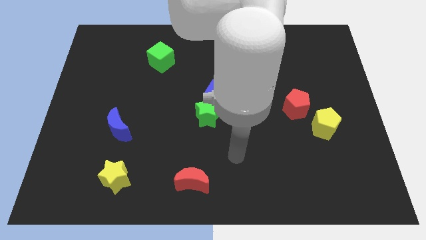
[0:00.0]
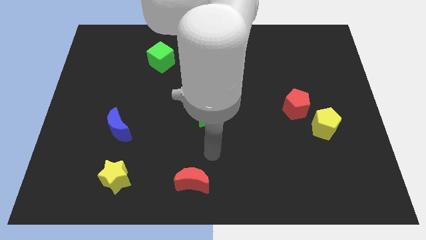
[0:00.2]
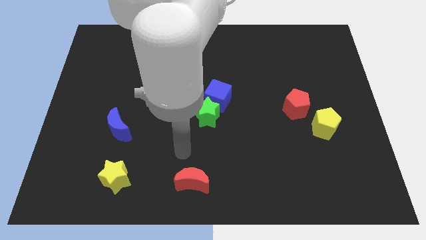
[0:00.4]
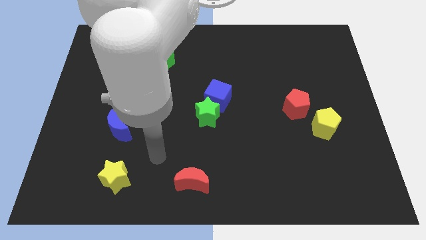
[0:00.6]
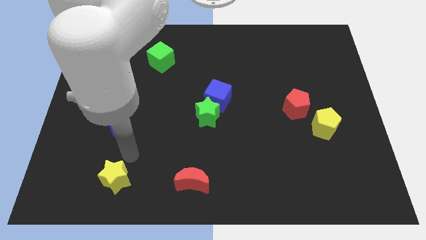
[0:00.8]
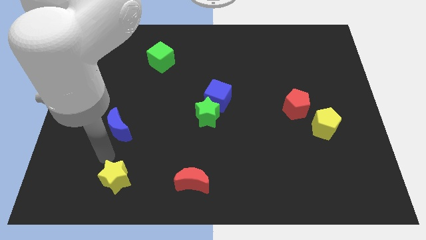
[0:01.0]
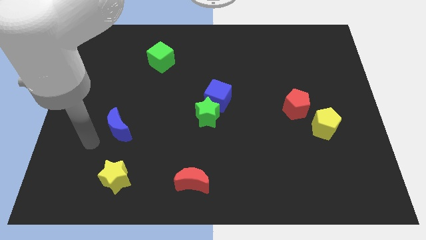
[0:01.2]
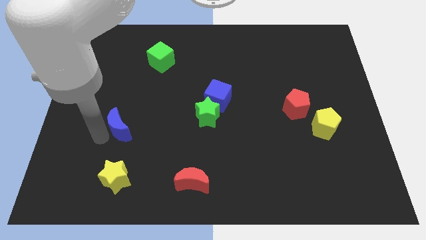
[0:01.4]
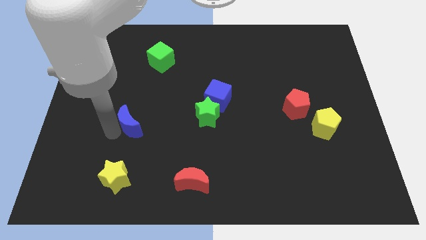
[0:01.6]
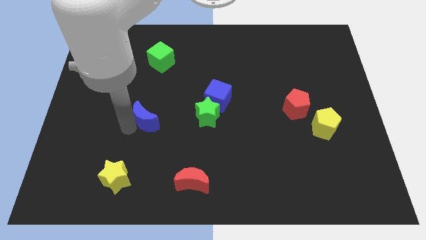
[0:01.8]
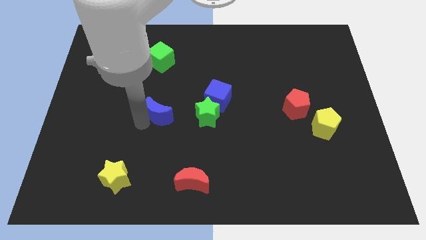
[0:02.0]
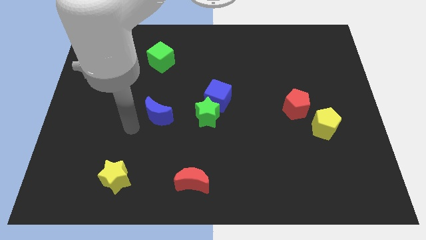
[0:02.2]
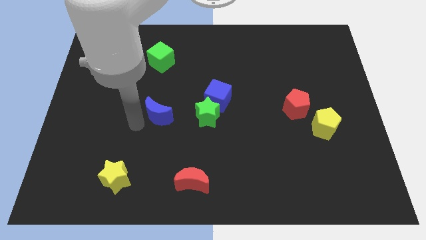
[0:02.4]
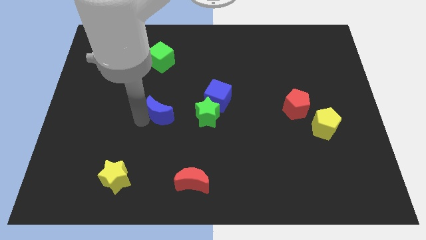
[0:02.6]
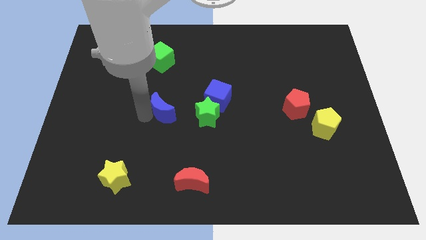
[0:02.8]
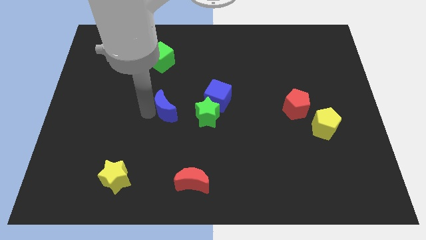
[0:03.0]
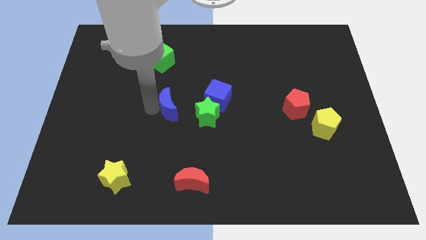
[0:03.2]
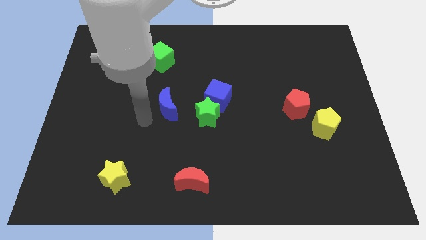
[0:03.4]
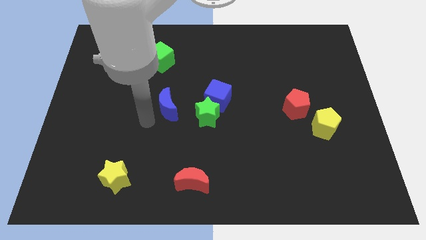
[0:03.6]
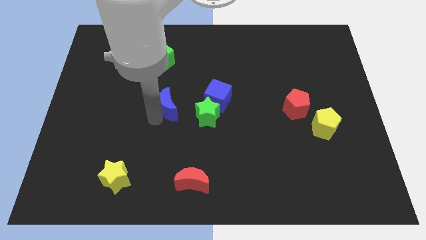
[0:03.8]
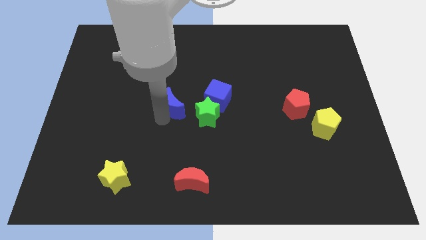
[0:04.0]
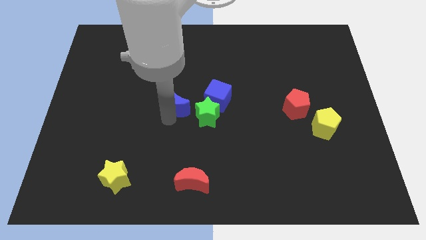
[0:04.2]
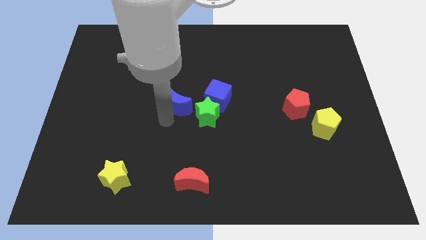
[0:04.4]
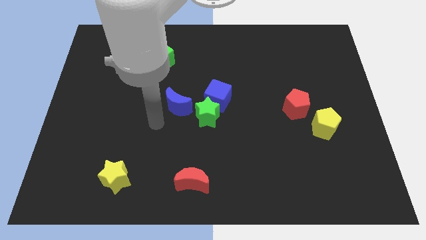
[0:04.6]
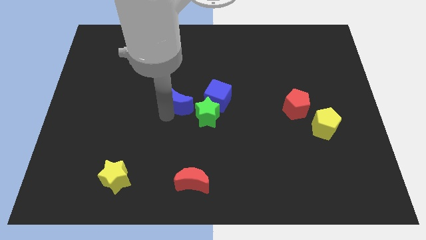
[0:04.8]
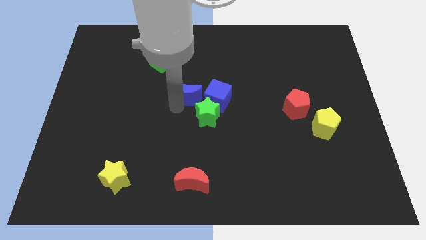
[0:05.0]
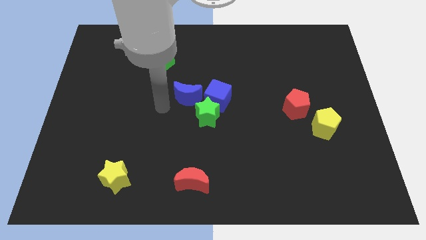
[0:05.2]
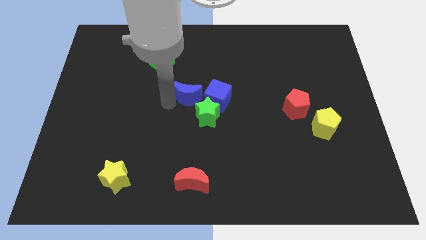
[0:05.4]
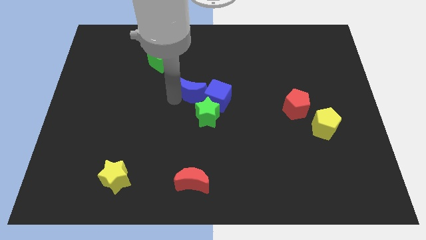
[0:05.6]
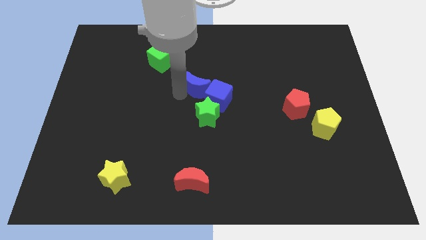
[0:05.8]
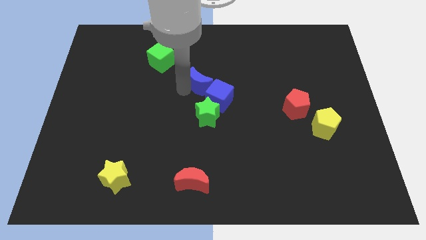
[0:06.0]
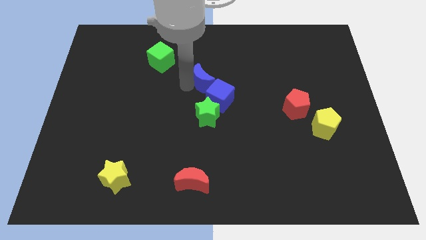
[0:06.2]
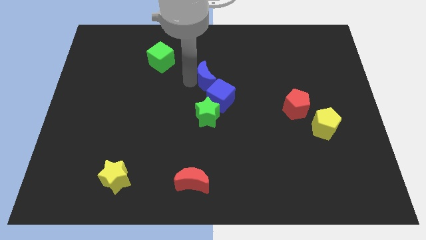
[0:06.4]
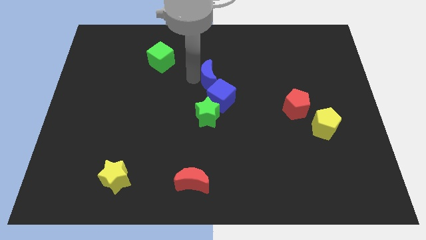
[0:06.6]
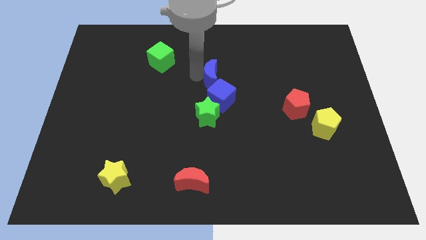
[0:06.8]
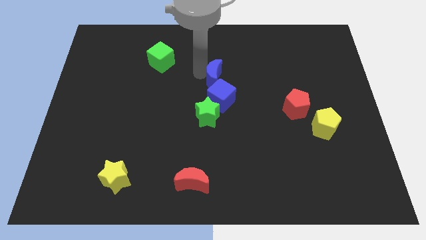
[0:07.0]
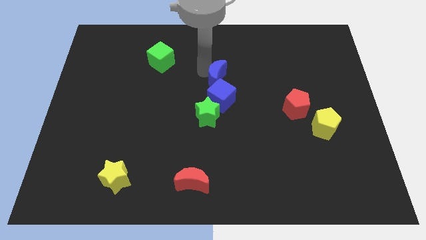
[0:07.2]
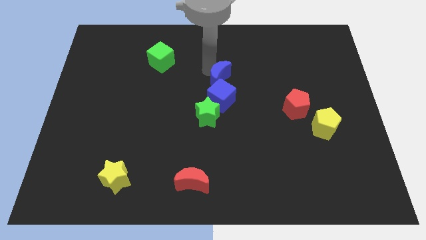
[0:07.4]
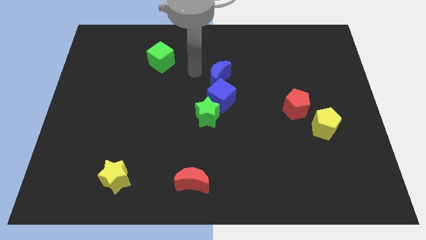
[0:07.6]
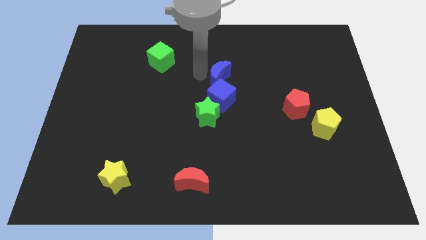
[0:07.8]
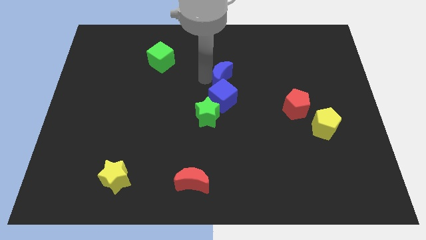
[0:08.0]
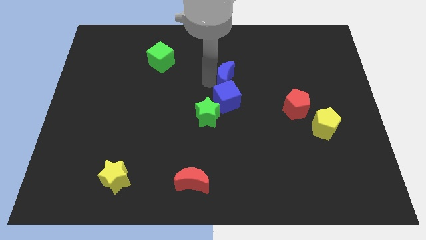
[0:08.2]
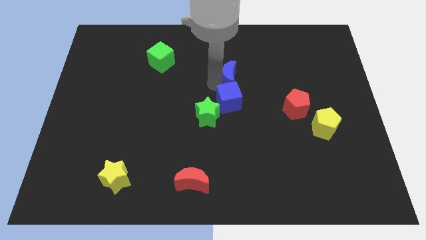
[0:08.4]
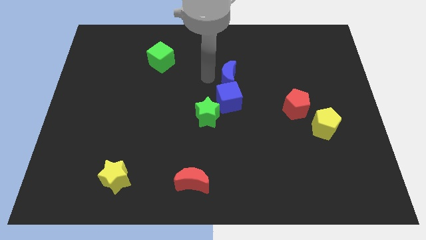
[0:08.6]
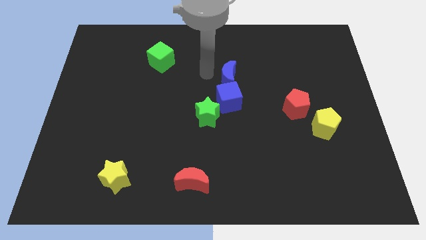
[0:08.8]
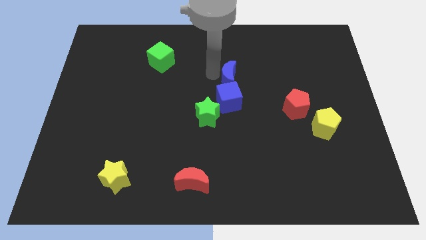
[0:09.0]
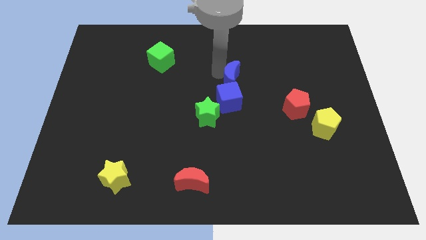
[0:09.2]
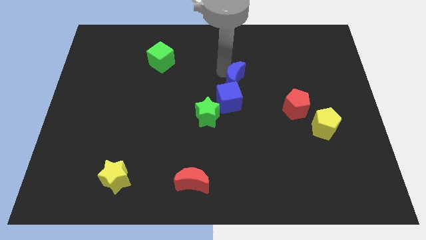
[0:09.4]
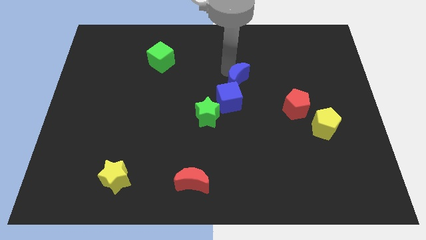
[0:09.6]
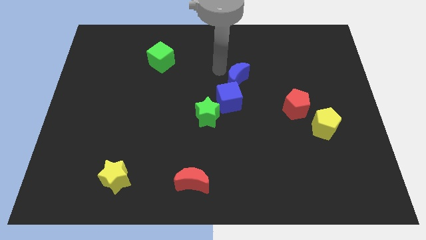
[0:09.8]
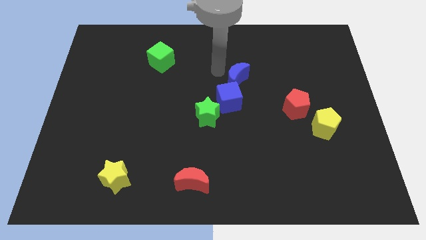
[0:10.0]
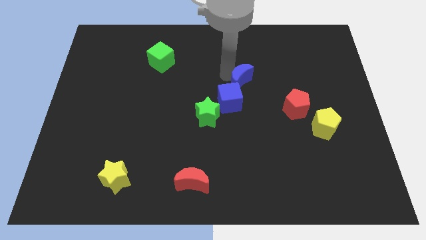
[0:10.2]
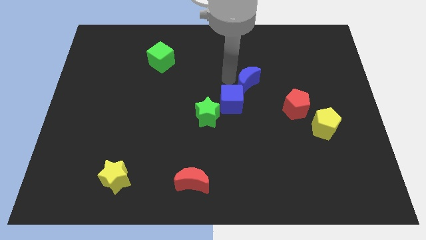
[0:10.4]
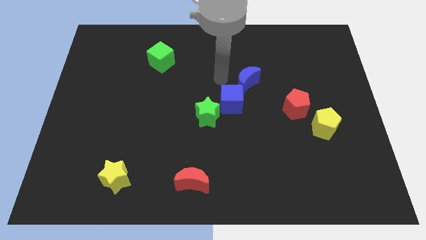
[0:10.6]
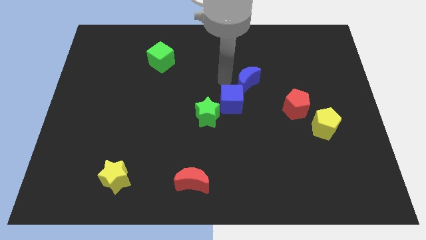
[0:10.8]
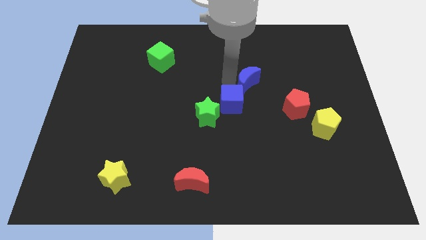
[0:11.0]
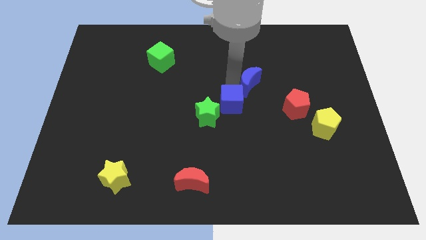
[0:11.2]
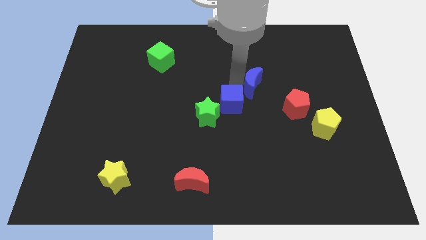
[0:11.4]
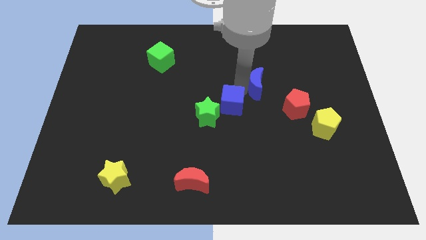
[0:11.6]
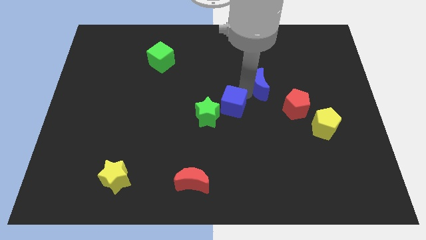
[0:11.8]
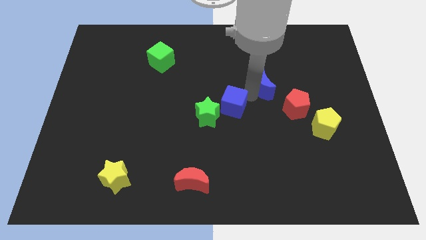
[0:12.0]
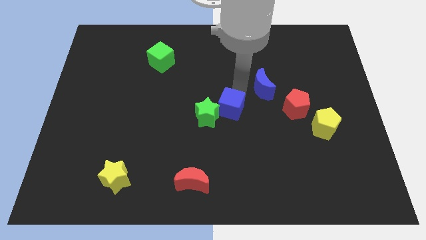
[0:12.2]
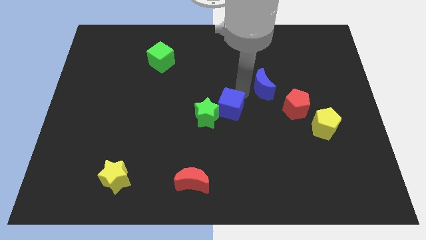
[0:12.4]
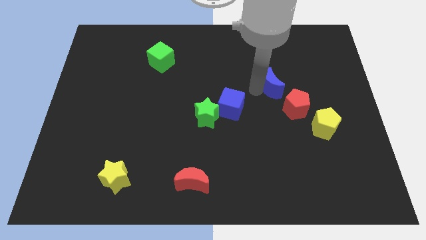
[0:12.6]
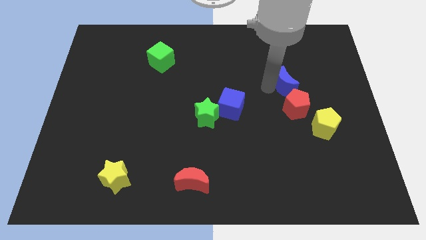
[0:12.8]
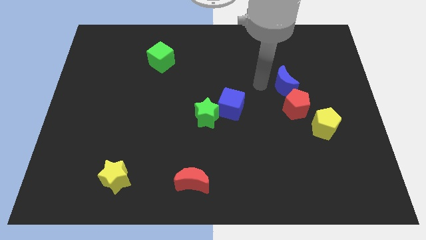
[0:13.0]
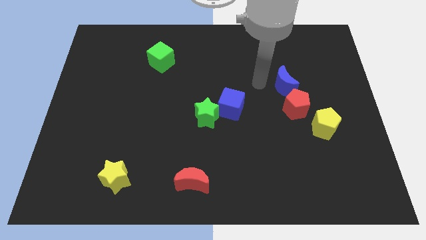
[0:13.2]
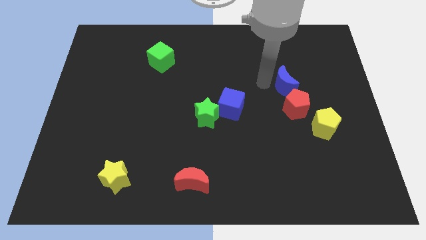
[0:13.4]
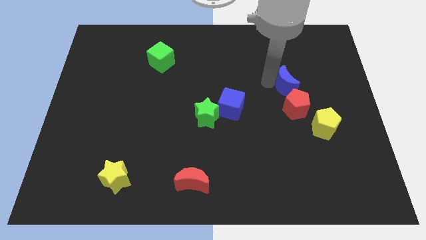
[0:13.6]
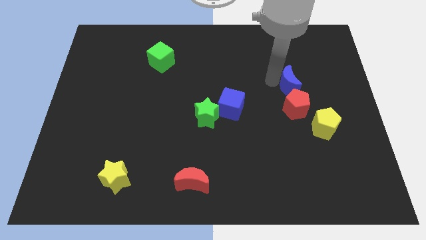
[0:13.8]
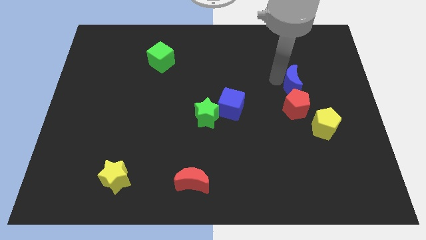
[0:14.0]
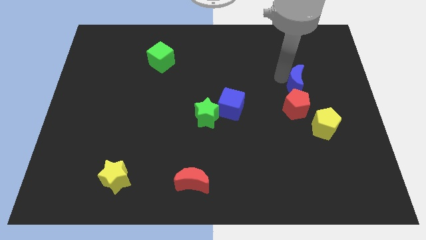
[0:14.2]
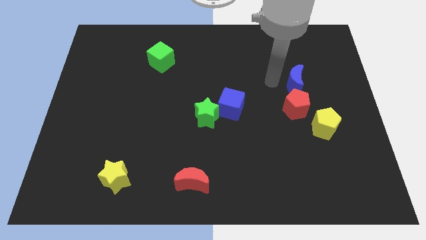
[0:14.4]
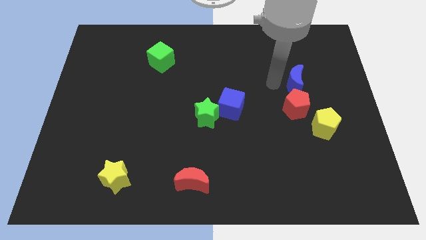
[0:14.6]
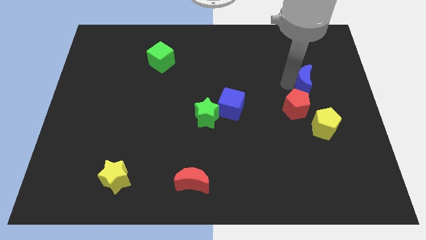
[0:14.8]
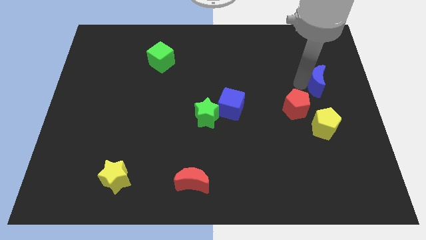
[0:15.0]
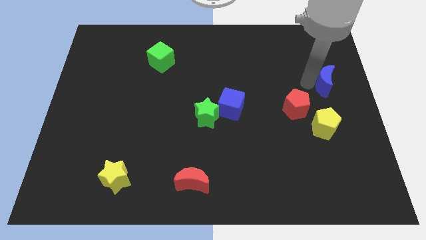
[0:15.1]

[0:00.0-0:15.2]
put the blue moon to the center right
